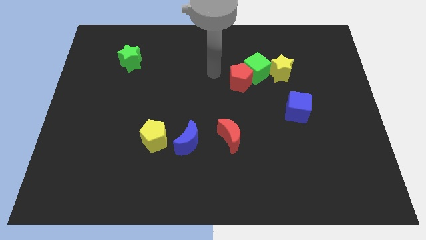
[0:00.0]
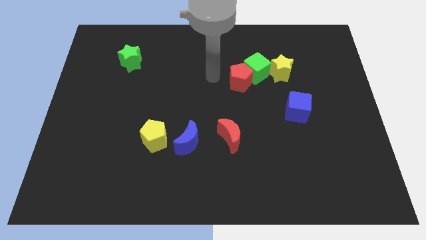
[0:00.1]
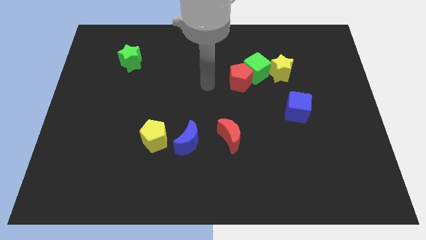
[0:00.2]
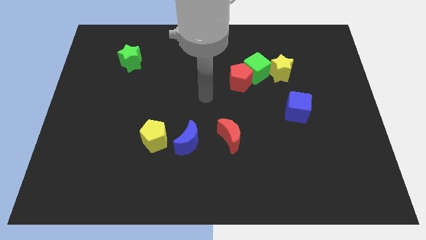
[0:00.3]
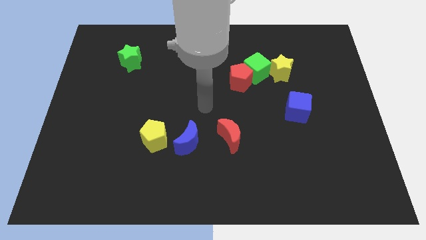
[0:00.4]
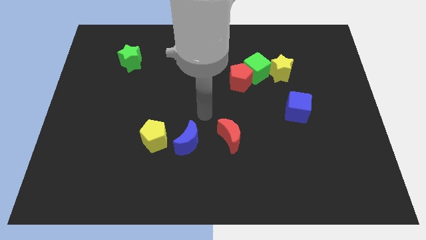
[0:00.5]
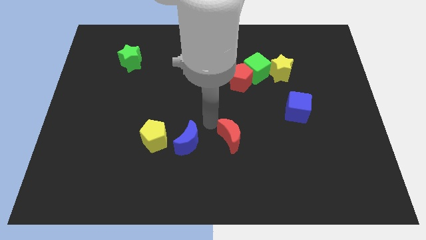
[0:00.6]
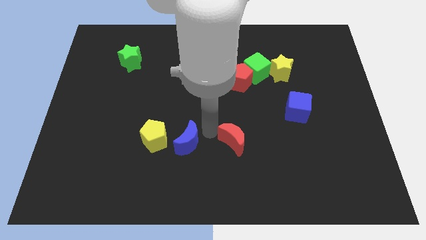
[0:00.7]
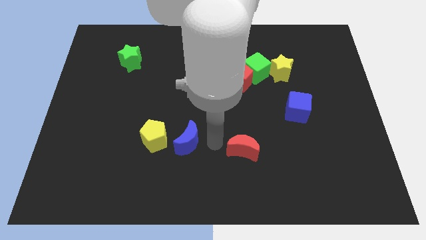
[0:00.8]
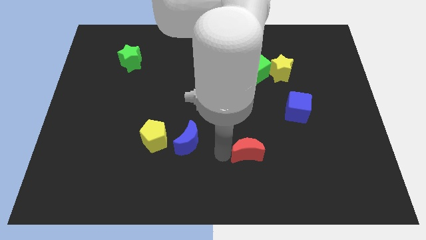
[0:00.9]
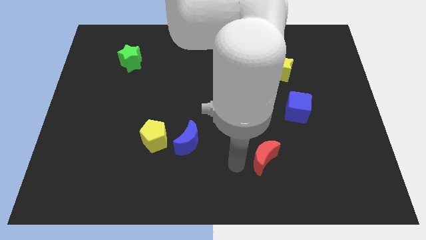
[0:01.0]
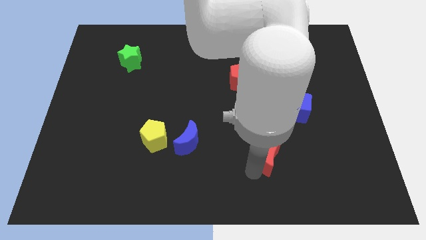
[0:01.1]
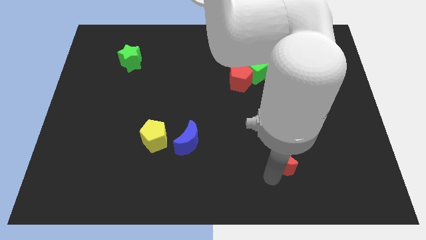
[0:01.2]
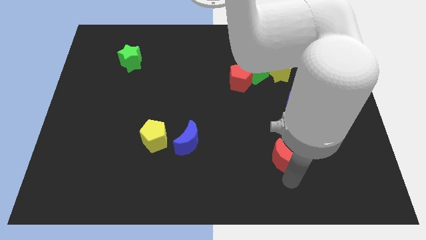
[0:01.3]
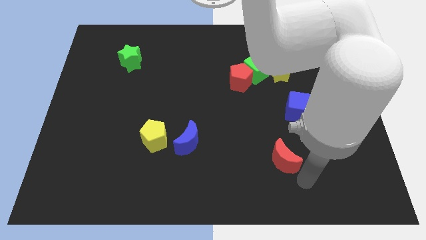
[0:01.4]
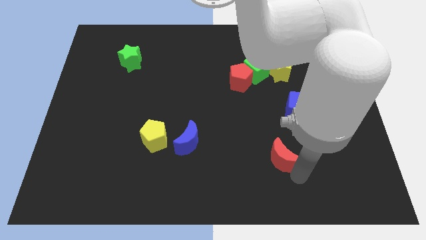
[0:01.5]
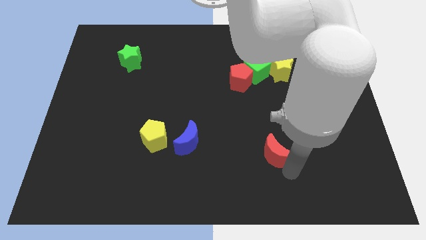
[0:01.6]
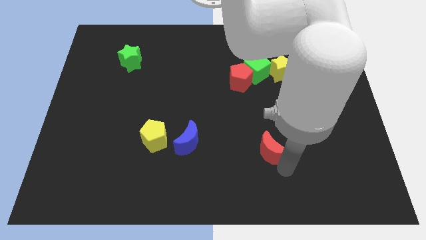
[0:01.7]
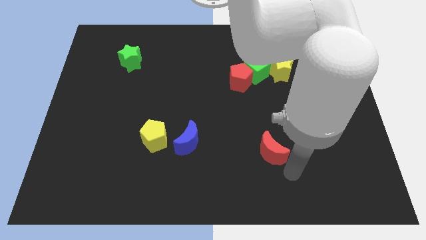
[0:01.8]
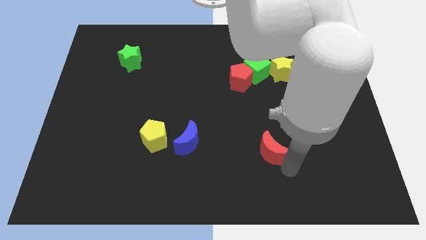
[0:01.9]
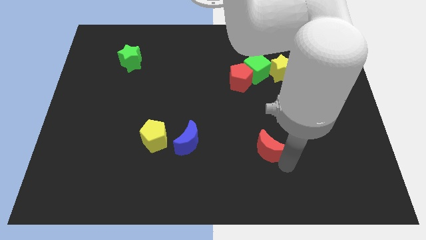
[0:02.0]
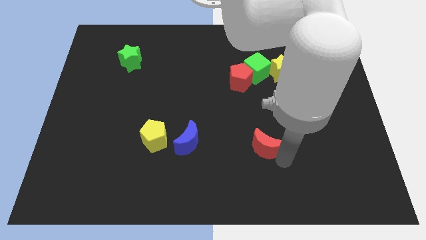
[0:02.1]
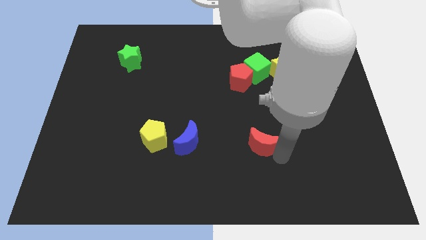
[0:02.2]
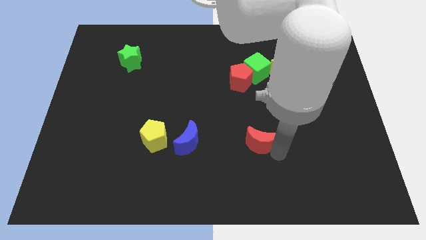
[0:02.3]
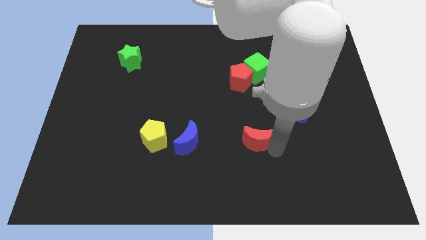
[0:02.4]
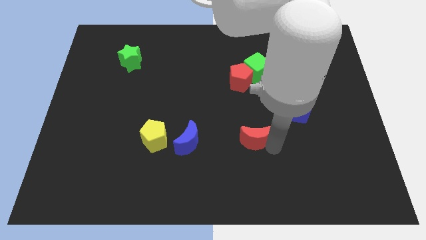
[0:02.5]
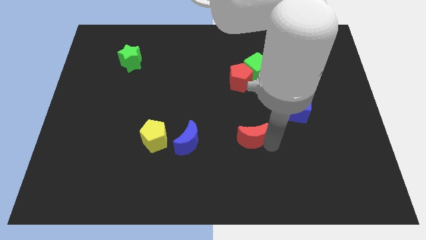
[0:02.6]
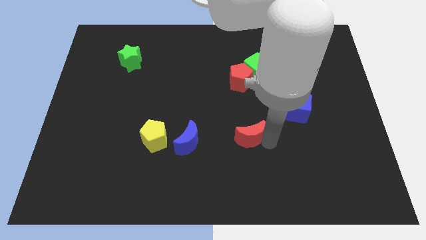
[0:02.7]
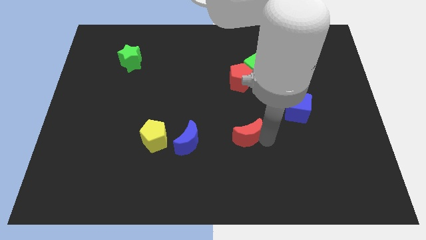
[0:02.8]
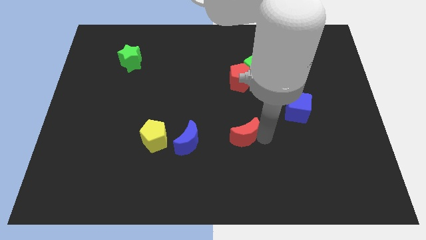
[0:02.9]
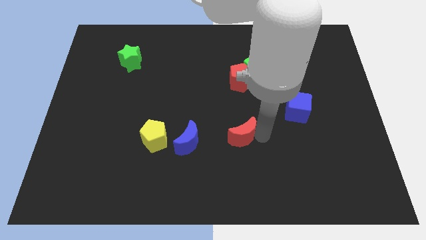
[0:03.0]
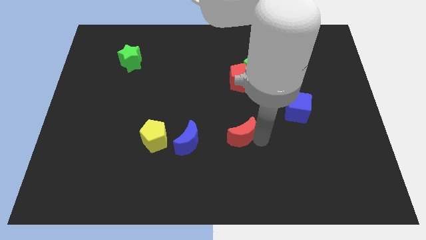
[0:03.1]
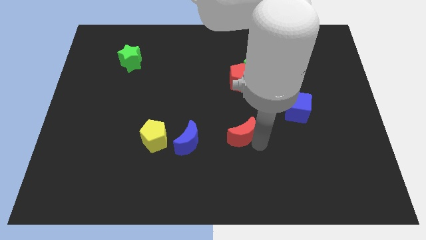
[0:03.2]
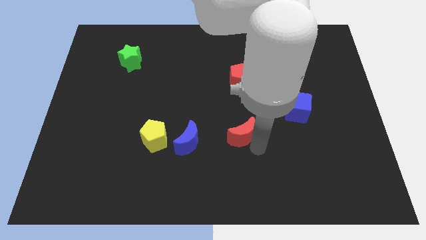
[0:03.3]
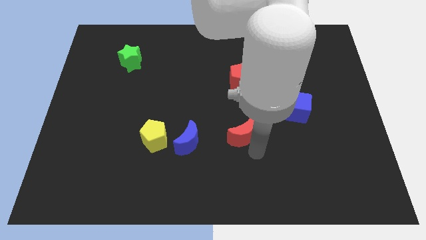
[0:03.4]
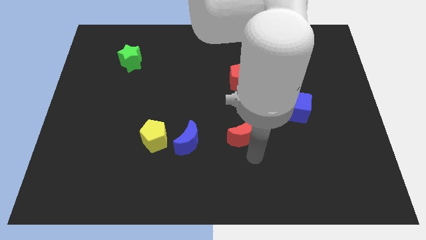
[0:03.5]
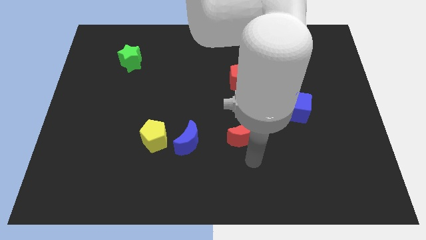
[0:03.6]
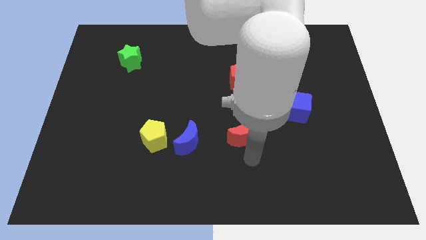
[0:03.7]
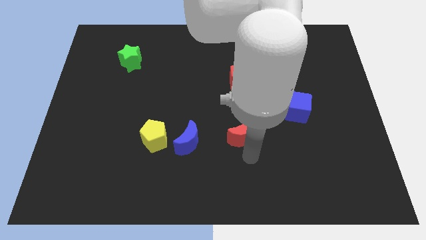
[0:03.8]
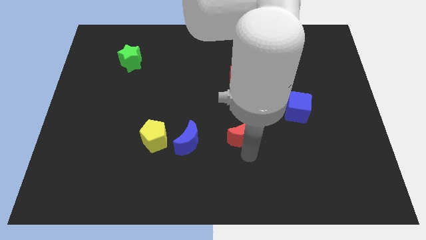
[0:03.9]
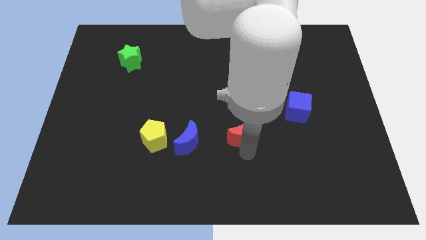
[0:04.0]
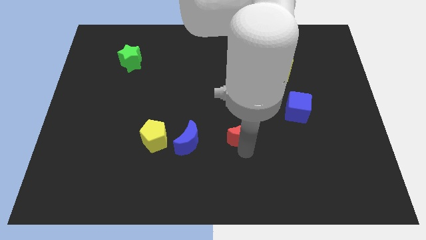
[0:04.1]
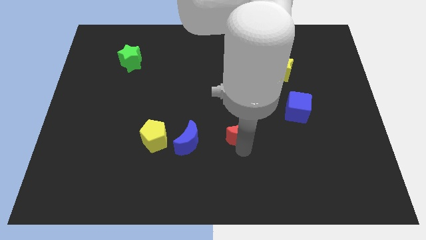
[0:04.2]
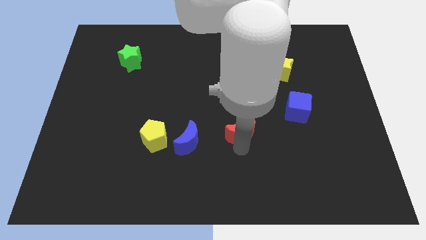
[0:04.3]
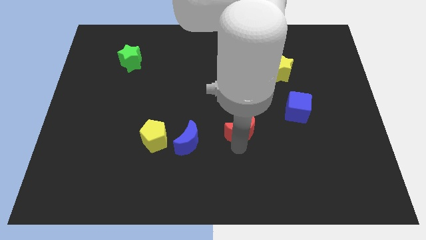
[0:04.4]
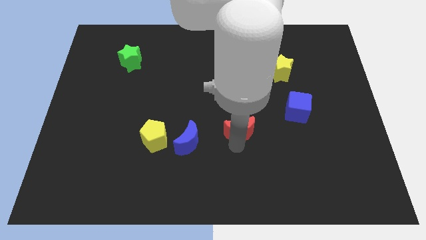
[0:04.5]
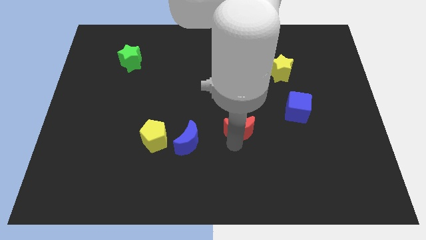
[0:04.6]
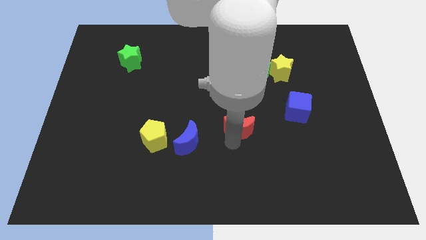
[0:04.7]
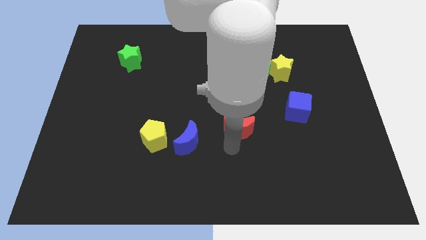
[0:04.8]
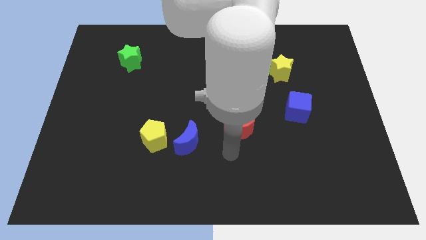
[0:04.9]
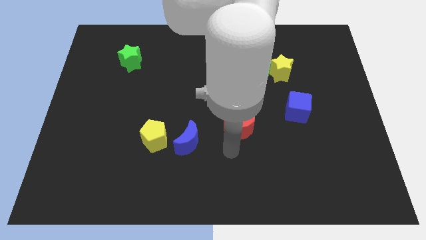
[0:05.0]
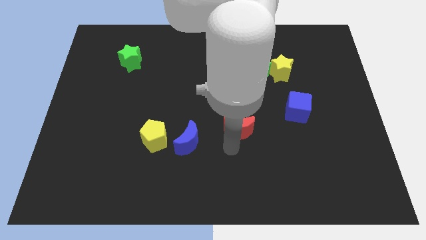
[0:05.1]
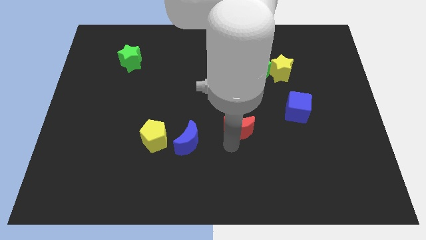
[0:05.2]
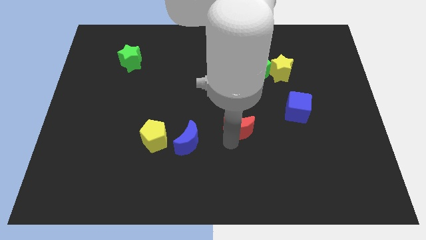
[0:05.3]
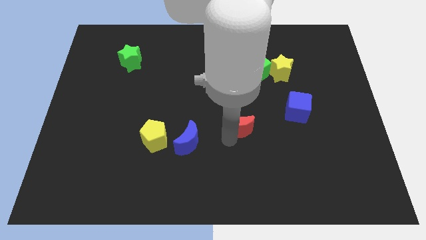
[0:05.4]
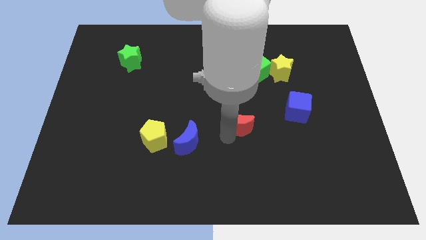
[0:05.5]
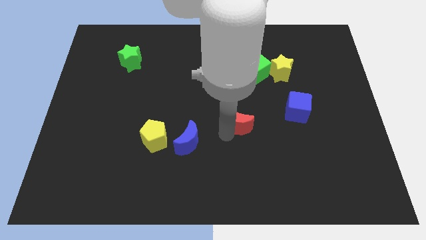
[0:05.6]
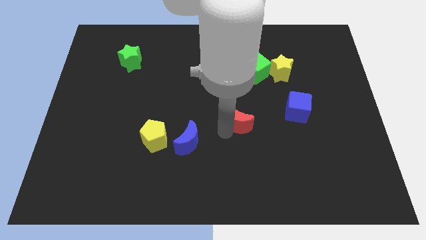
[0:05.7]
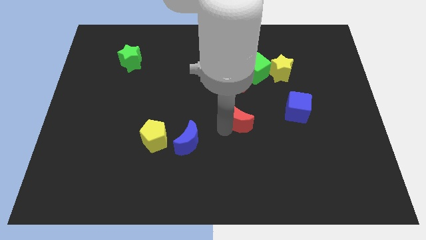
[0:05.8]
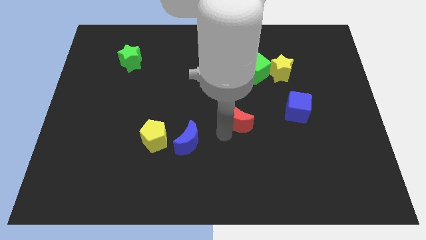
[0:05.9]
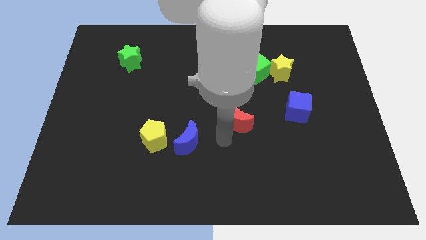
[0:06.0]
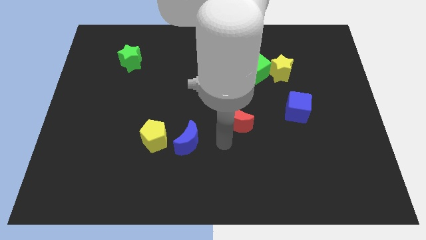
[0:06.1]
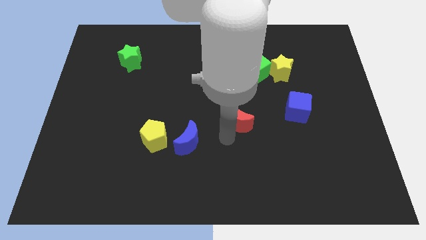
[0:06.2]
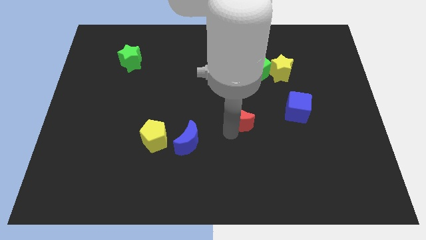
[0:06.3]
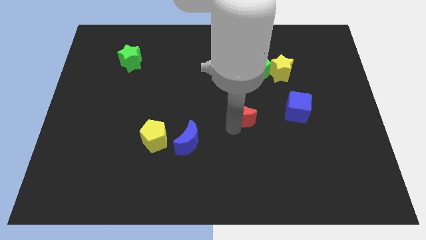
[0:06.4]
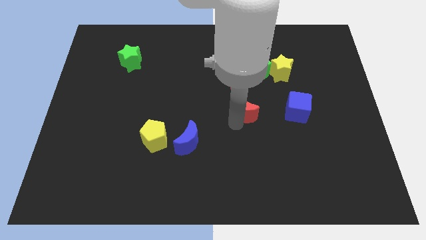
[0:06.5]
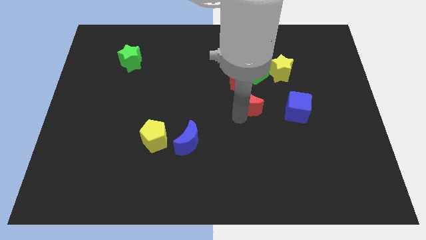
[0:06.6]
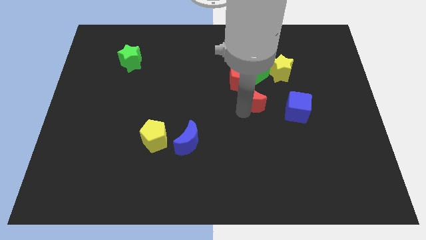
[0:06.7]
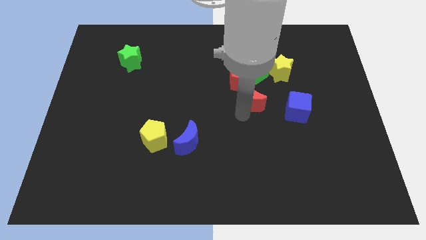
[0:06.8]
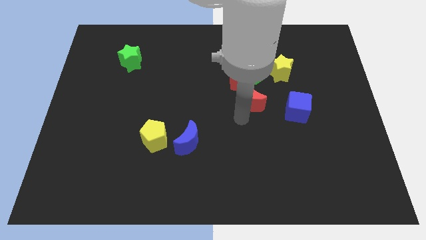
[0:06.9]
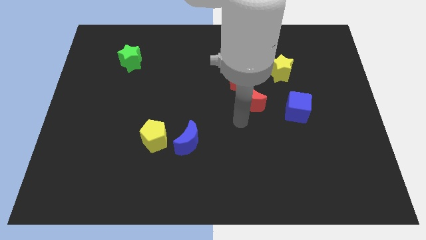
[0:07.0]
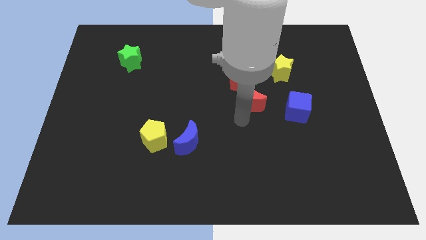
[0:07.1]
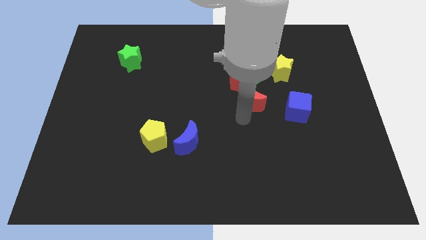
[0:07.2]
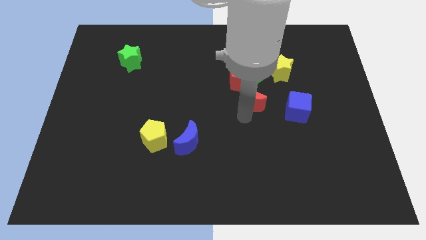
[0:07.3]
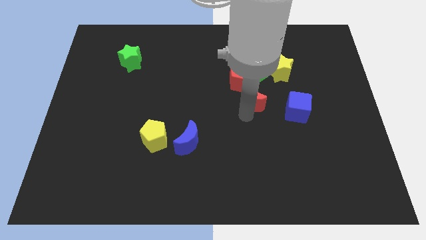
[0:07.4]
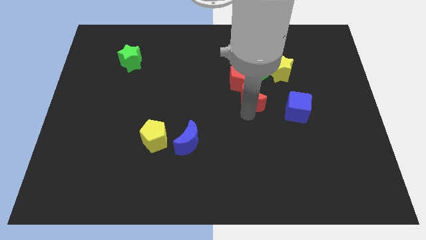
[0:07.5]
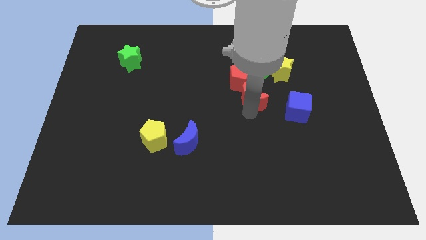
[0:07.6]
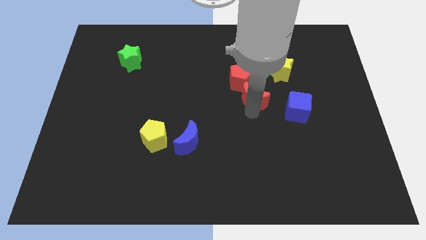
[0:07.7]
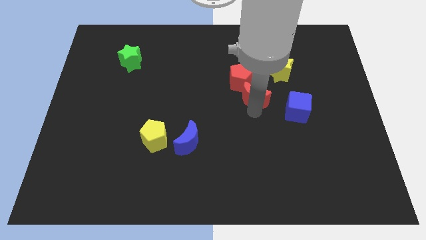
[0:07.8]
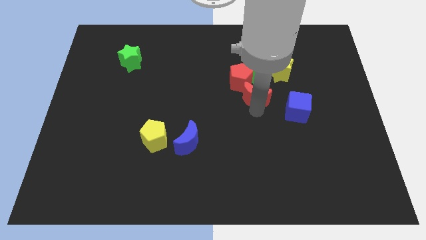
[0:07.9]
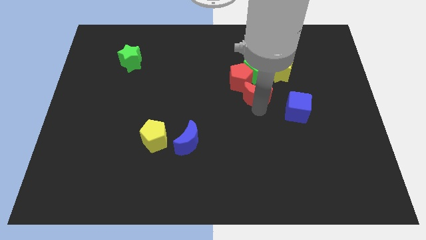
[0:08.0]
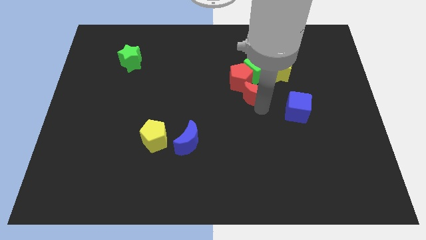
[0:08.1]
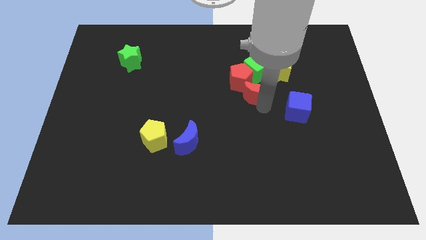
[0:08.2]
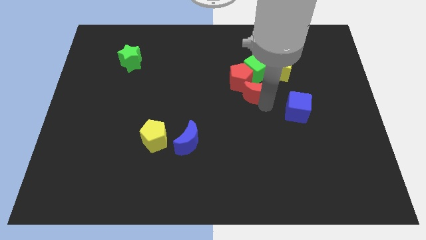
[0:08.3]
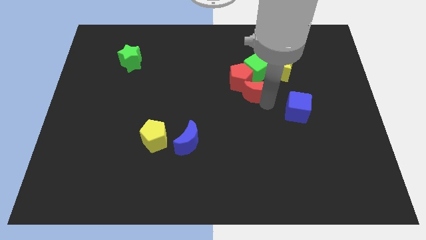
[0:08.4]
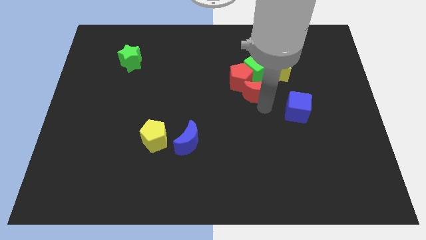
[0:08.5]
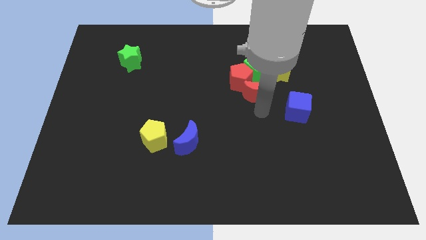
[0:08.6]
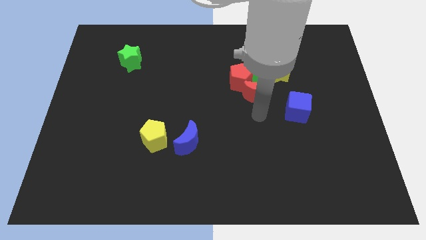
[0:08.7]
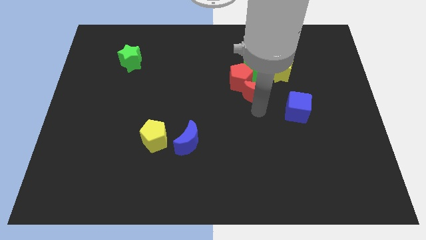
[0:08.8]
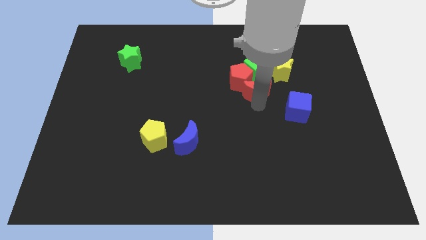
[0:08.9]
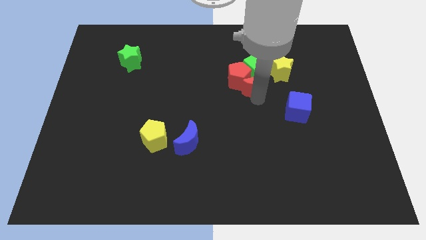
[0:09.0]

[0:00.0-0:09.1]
put the red moon next to the green cube
